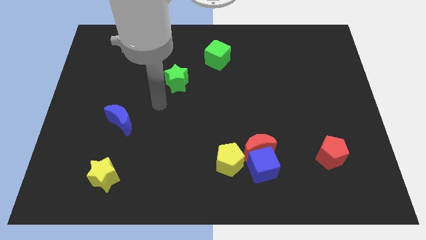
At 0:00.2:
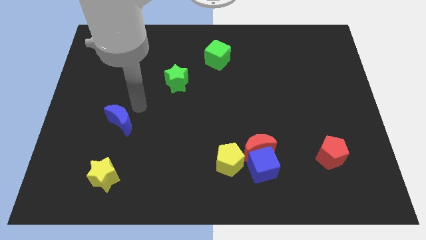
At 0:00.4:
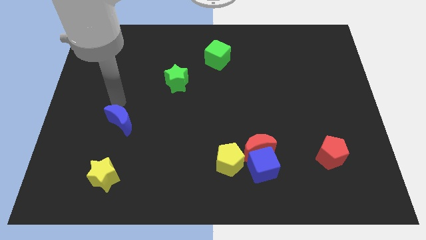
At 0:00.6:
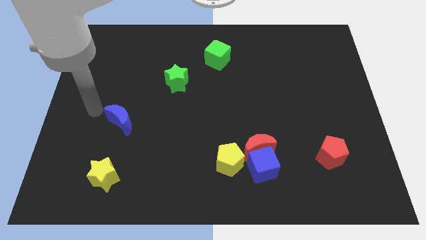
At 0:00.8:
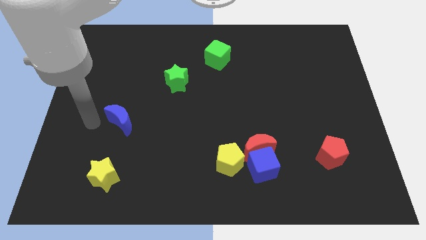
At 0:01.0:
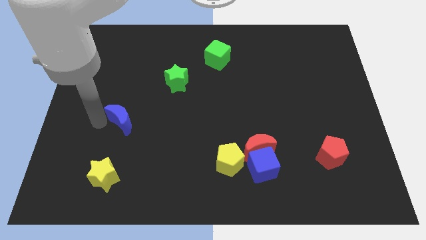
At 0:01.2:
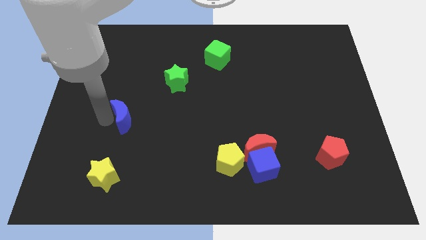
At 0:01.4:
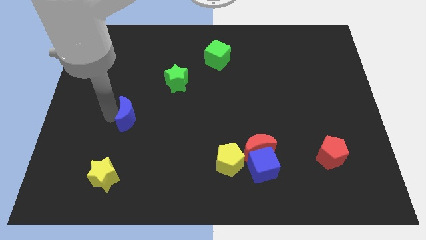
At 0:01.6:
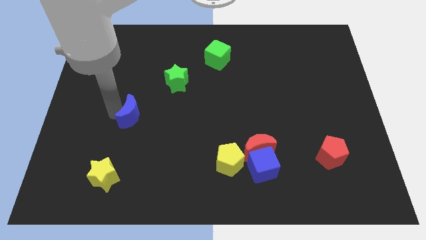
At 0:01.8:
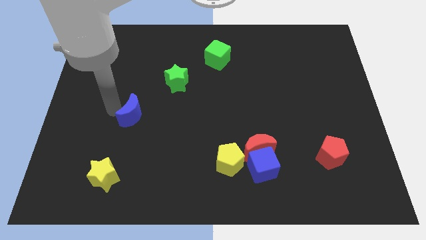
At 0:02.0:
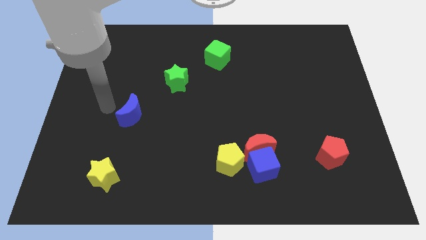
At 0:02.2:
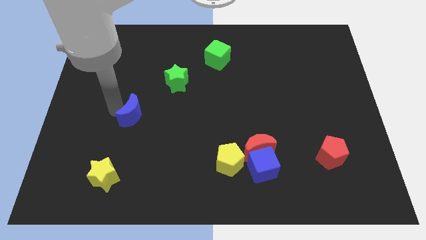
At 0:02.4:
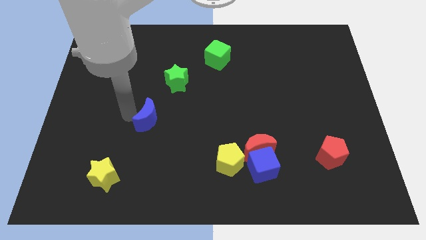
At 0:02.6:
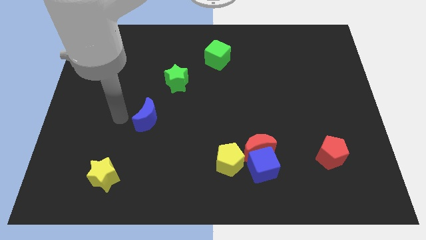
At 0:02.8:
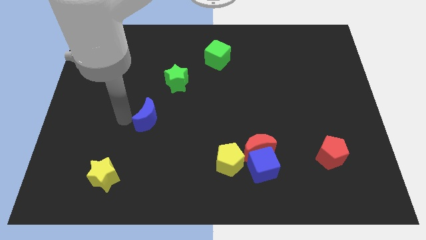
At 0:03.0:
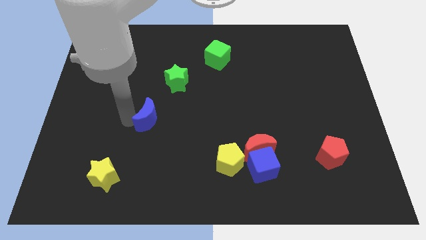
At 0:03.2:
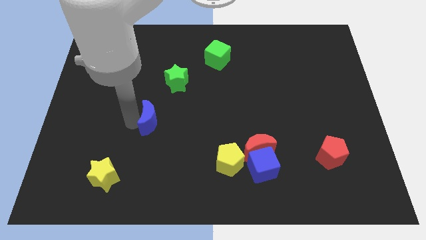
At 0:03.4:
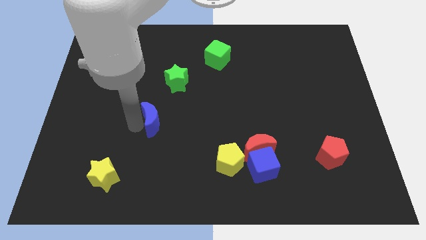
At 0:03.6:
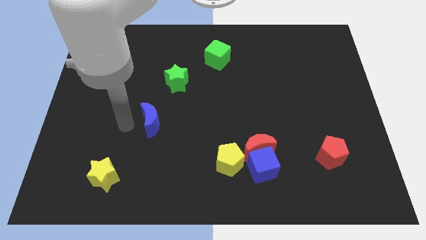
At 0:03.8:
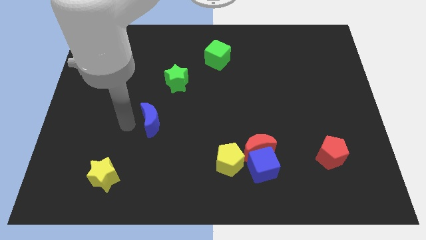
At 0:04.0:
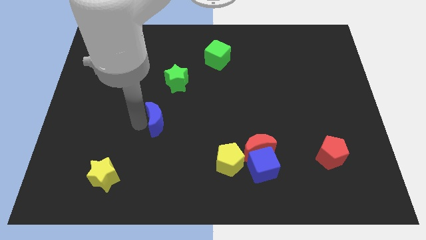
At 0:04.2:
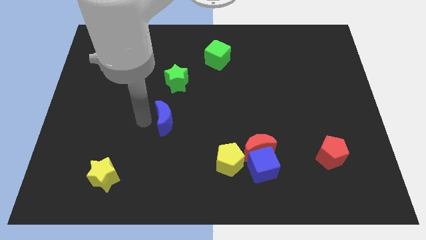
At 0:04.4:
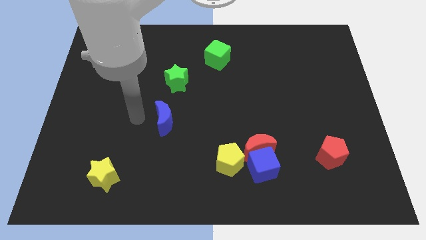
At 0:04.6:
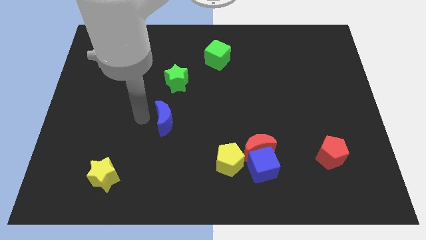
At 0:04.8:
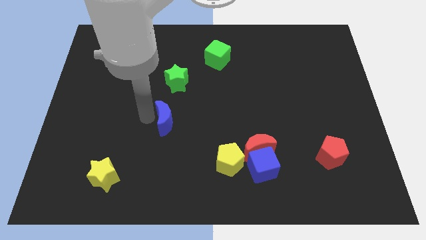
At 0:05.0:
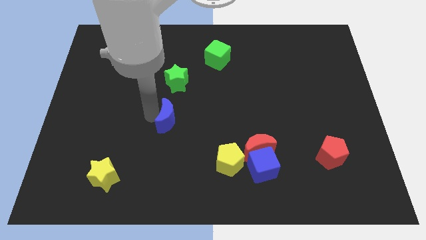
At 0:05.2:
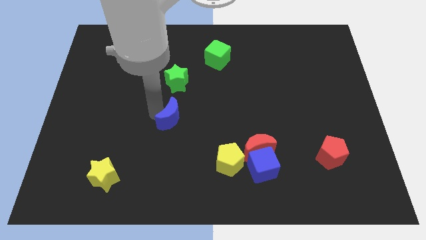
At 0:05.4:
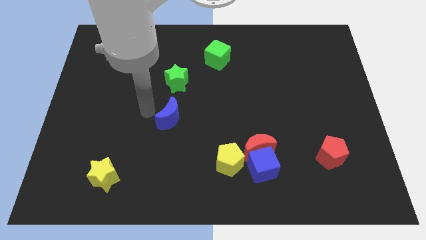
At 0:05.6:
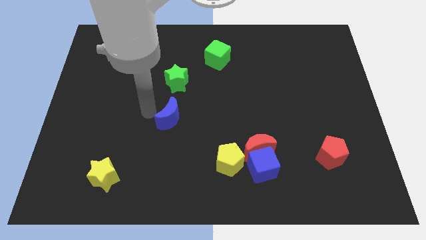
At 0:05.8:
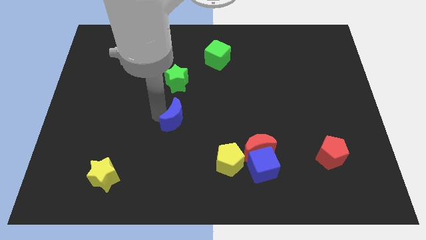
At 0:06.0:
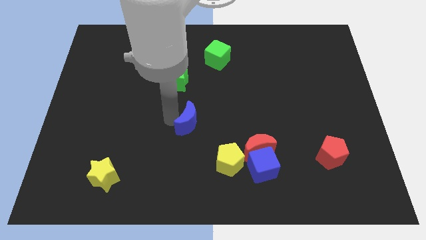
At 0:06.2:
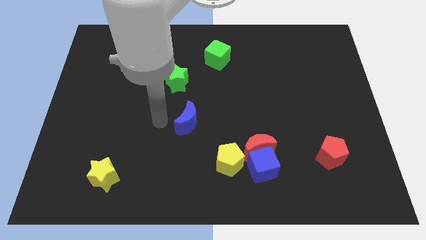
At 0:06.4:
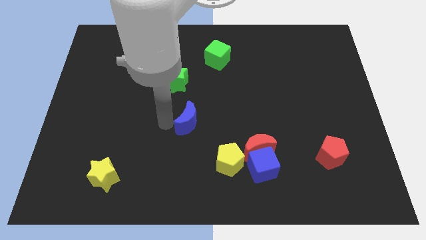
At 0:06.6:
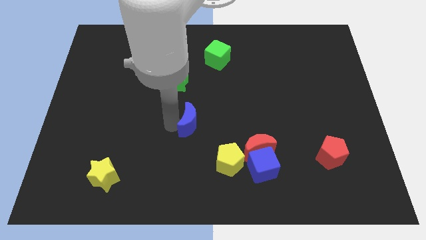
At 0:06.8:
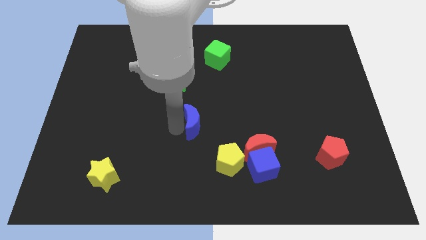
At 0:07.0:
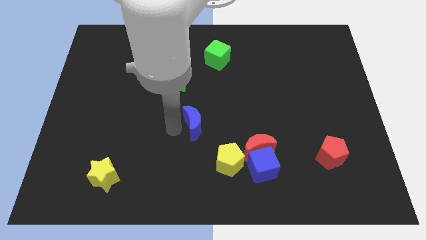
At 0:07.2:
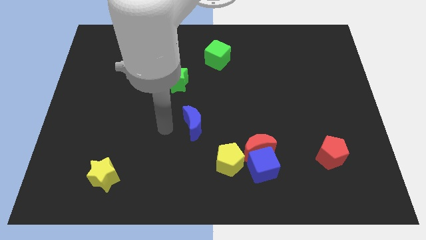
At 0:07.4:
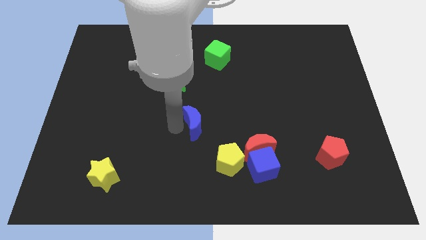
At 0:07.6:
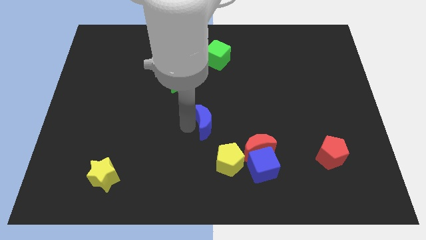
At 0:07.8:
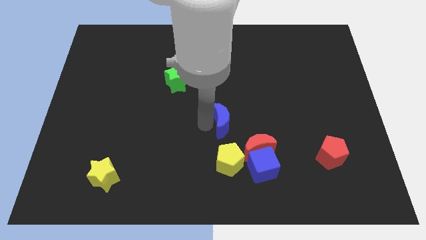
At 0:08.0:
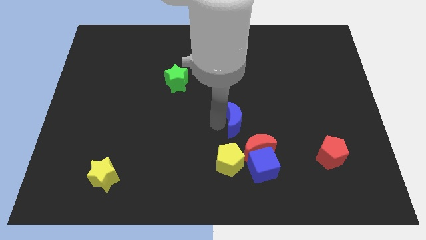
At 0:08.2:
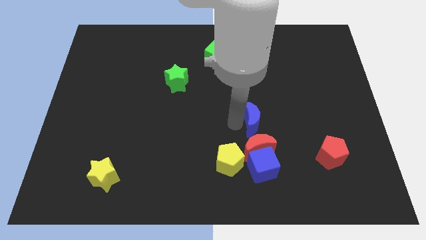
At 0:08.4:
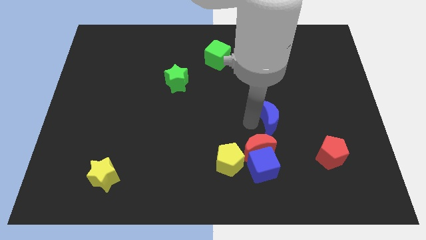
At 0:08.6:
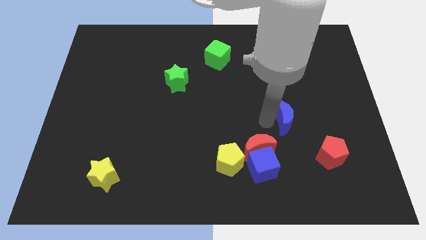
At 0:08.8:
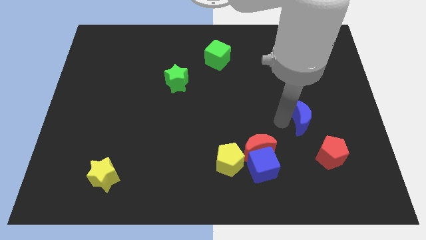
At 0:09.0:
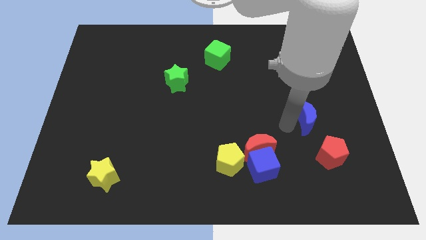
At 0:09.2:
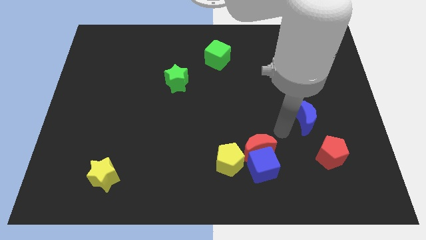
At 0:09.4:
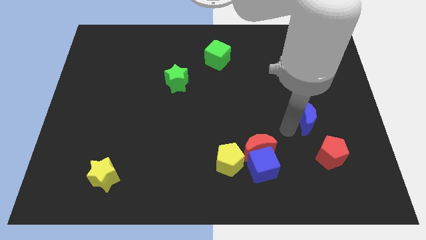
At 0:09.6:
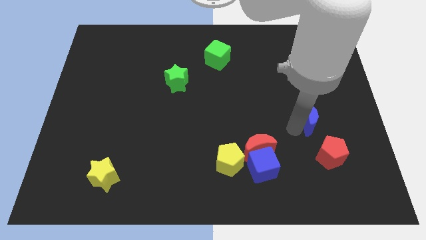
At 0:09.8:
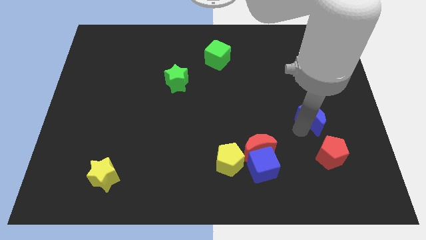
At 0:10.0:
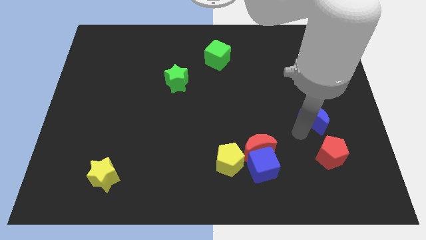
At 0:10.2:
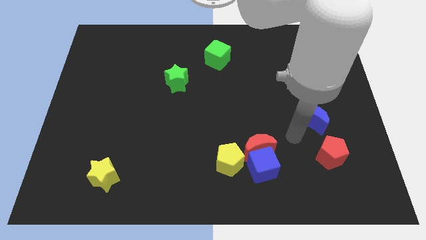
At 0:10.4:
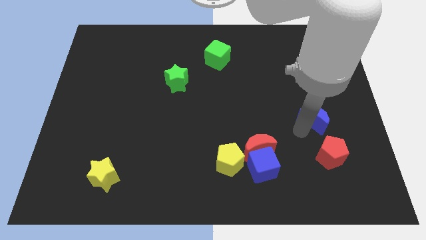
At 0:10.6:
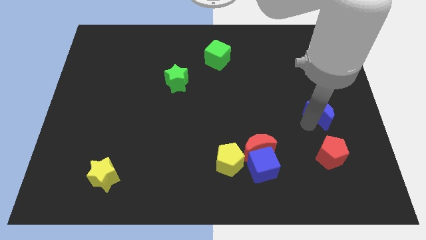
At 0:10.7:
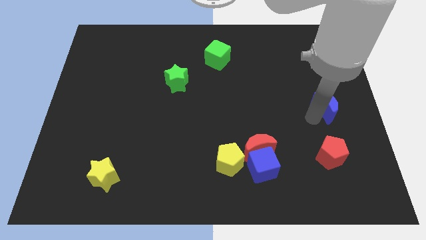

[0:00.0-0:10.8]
move the blue moon to the right side of the board

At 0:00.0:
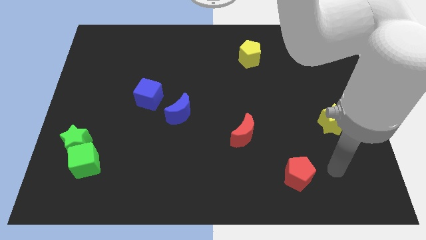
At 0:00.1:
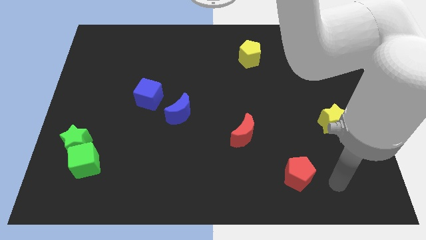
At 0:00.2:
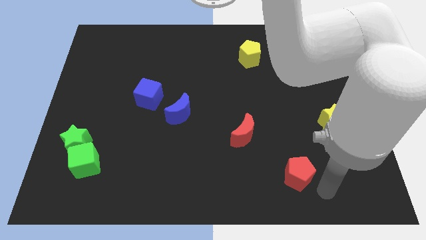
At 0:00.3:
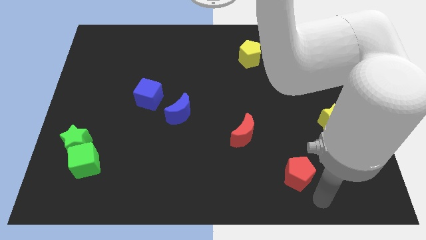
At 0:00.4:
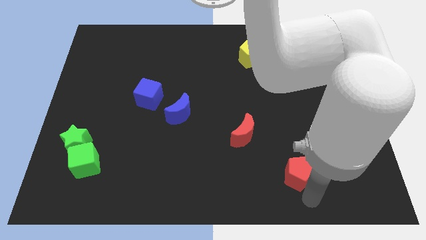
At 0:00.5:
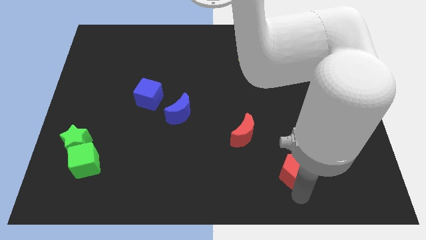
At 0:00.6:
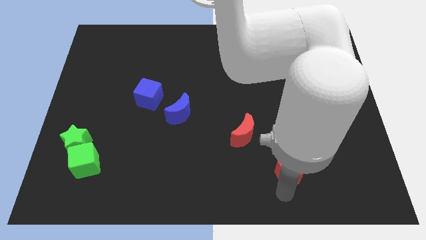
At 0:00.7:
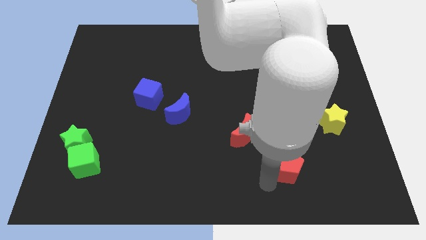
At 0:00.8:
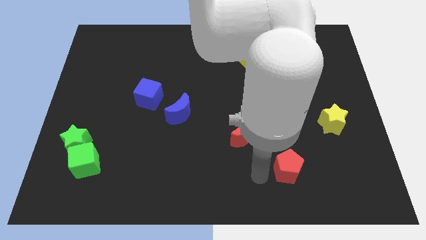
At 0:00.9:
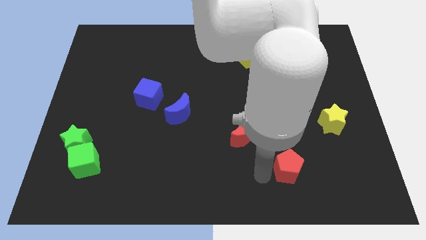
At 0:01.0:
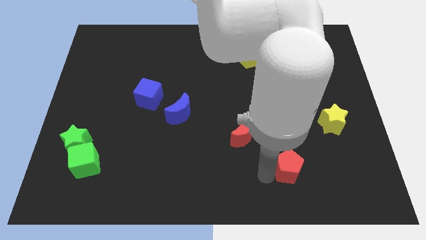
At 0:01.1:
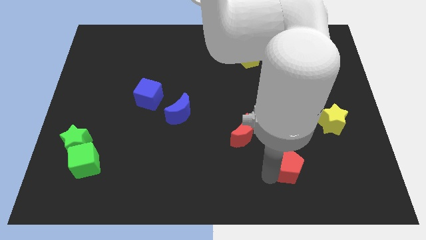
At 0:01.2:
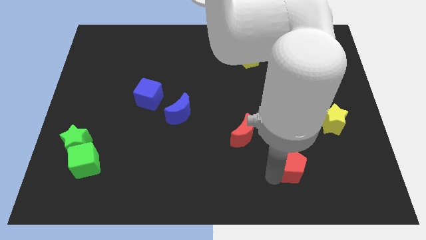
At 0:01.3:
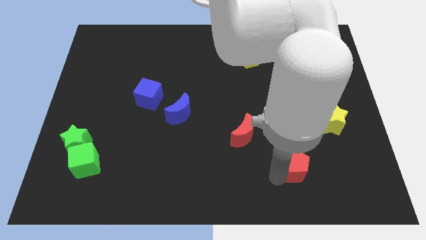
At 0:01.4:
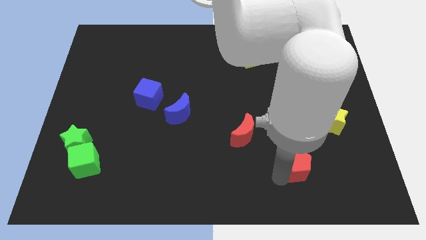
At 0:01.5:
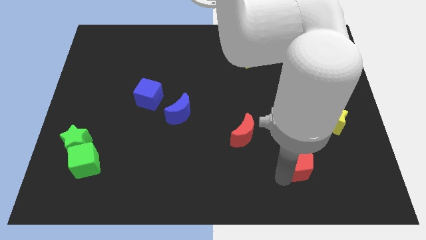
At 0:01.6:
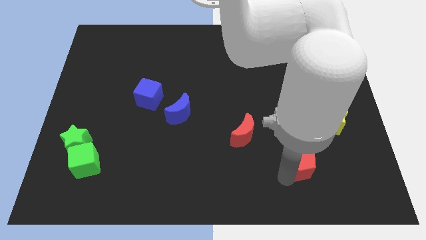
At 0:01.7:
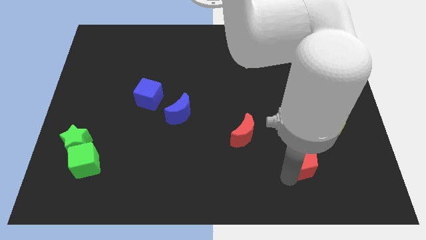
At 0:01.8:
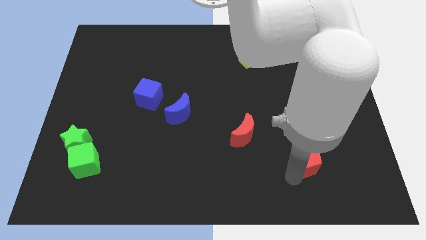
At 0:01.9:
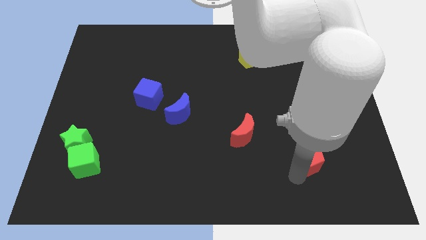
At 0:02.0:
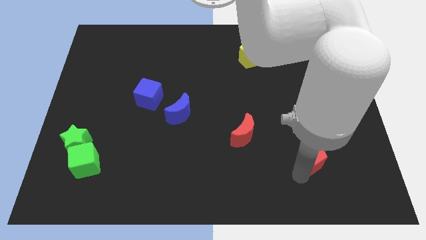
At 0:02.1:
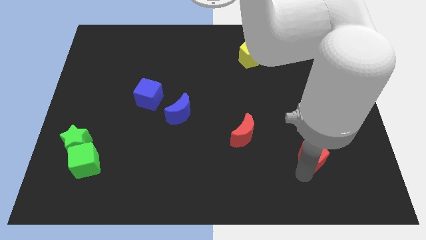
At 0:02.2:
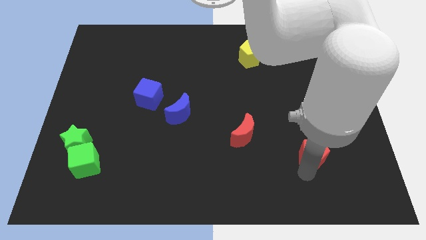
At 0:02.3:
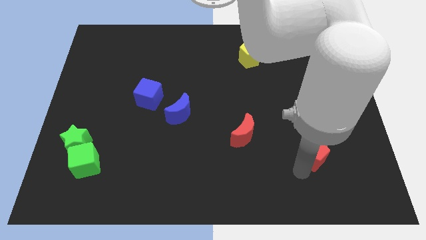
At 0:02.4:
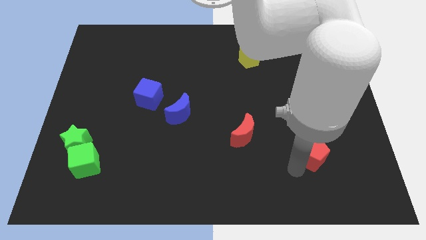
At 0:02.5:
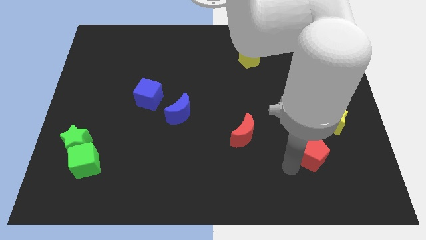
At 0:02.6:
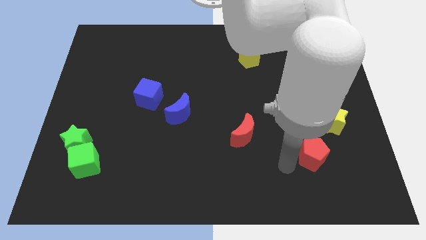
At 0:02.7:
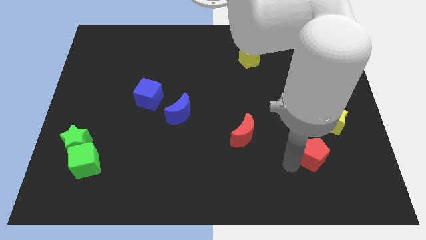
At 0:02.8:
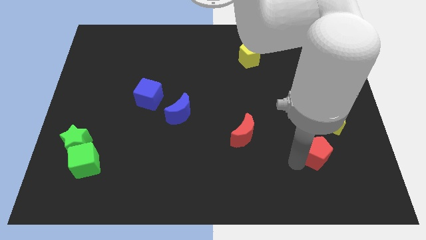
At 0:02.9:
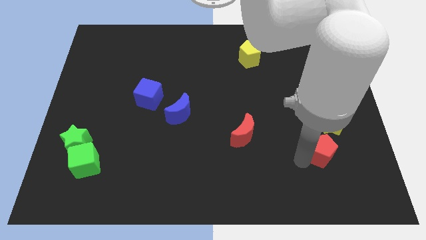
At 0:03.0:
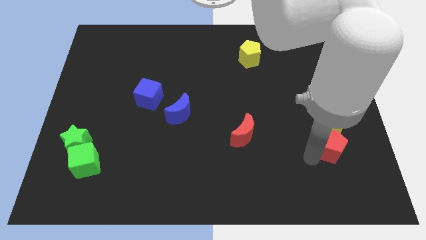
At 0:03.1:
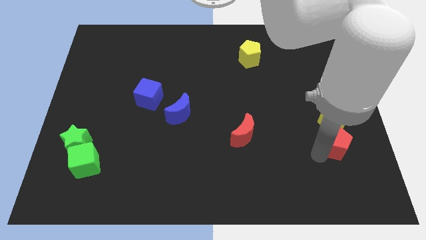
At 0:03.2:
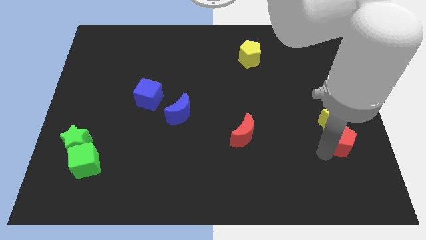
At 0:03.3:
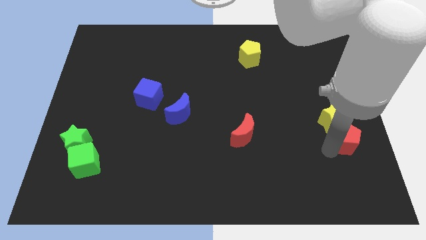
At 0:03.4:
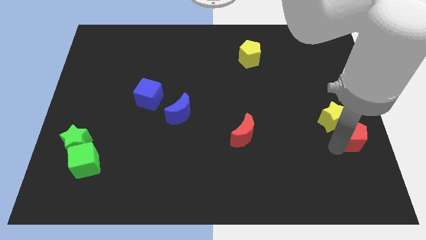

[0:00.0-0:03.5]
push the red pentagon to the center right
